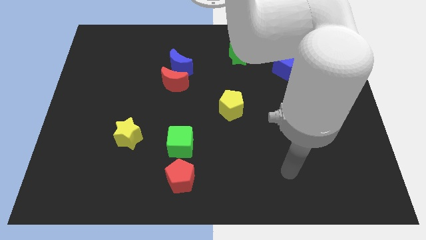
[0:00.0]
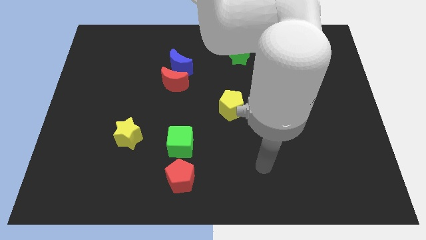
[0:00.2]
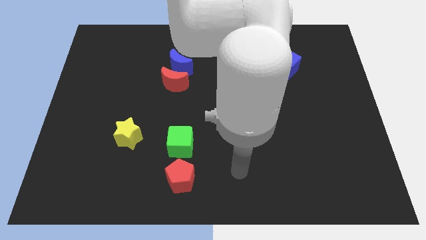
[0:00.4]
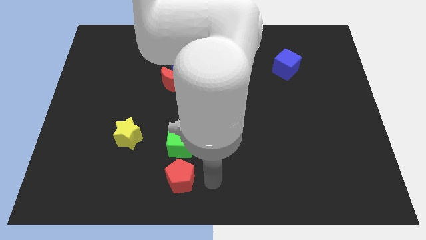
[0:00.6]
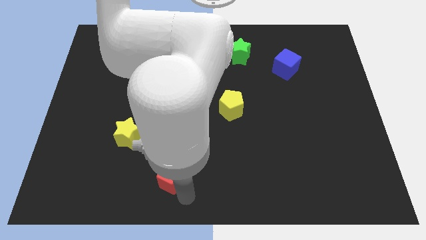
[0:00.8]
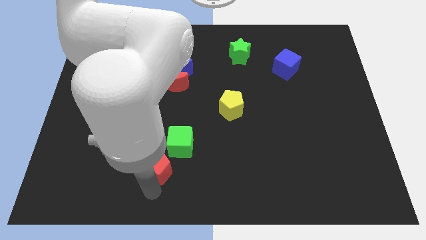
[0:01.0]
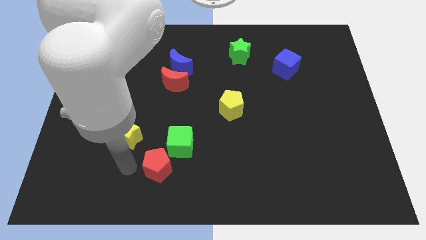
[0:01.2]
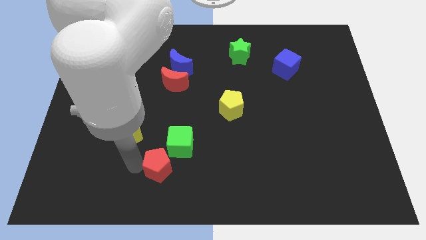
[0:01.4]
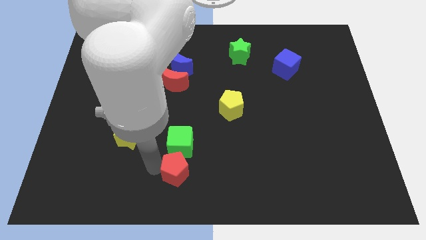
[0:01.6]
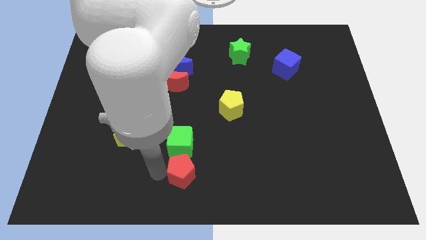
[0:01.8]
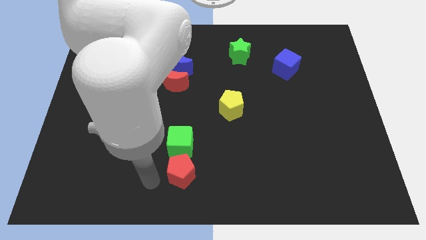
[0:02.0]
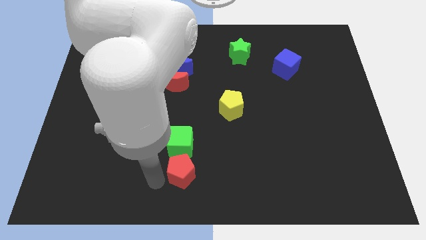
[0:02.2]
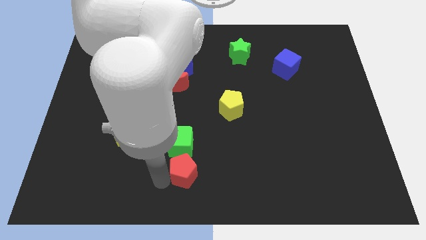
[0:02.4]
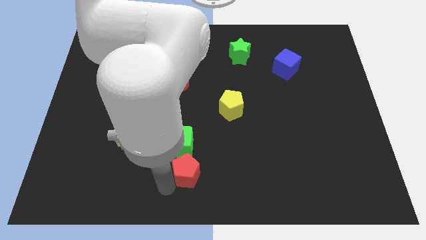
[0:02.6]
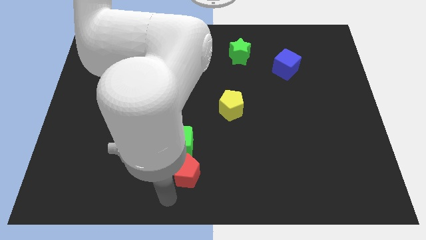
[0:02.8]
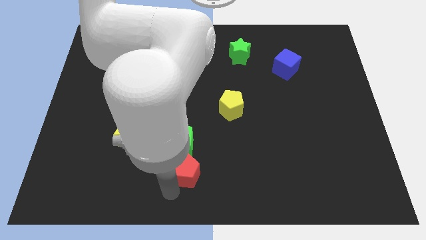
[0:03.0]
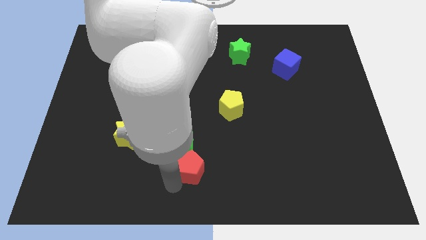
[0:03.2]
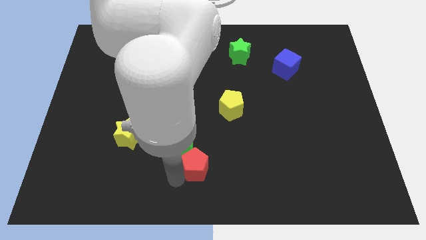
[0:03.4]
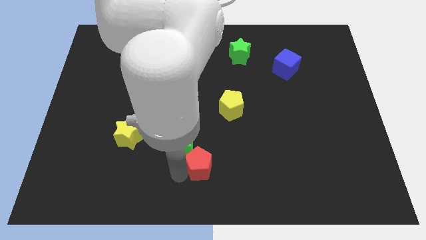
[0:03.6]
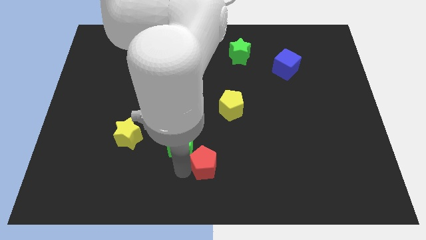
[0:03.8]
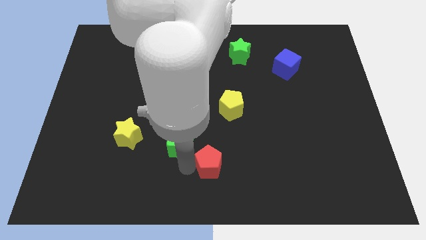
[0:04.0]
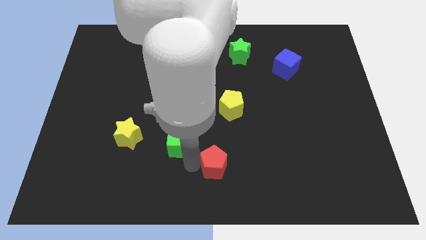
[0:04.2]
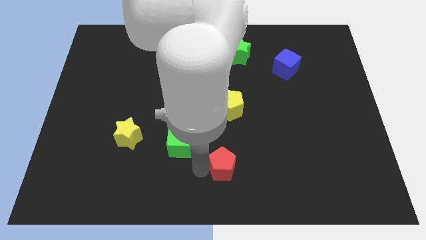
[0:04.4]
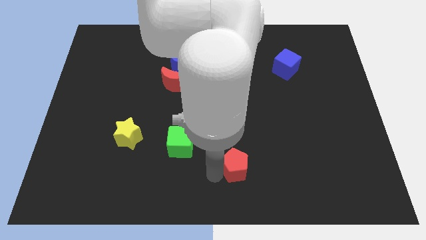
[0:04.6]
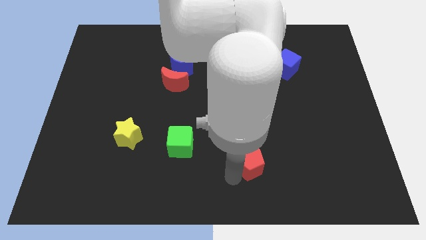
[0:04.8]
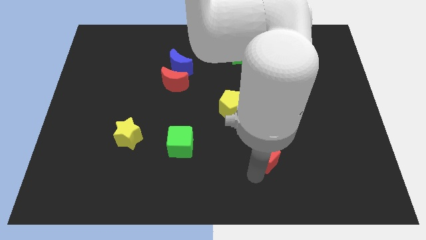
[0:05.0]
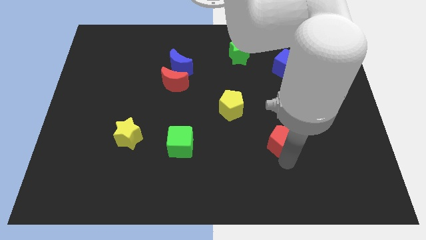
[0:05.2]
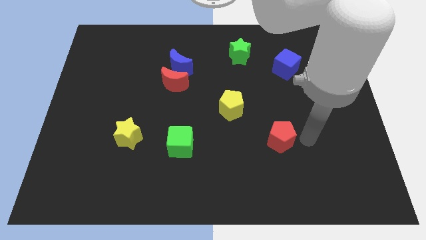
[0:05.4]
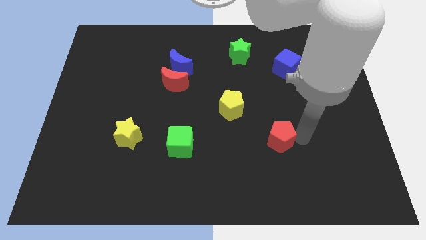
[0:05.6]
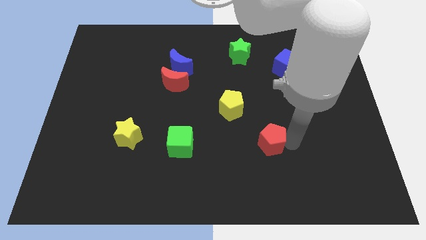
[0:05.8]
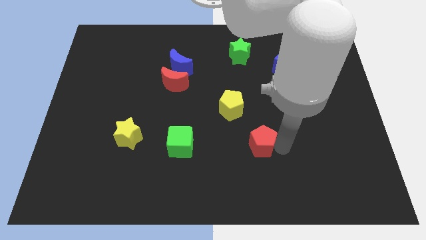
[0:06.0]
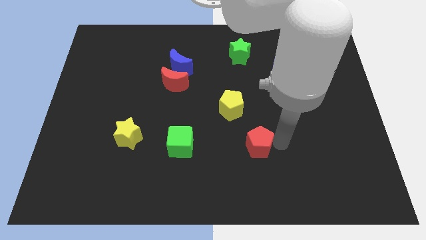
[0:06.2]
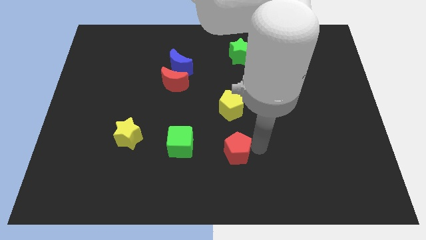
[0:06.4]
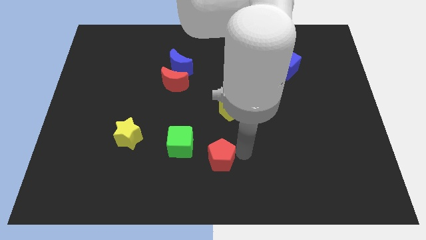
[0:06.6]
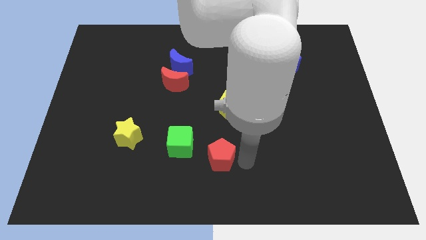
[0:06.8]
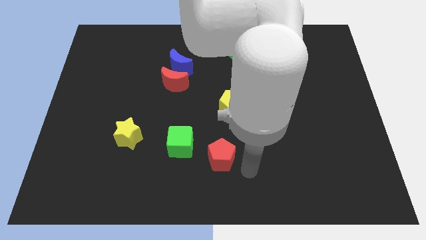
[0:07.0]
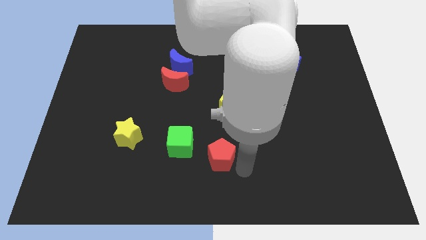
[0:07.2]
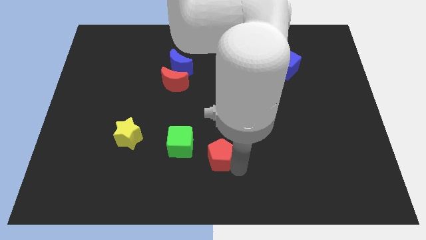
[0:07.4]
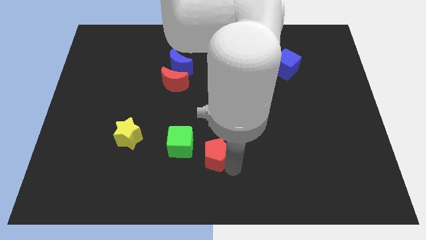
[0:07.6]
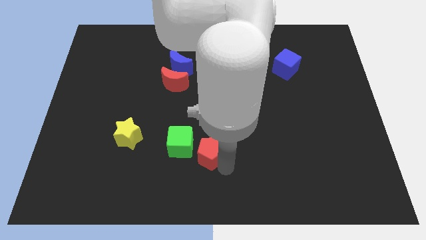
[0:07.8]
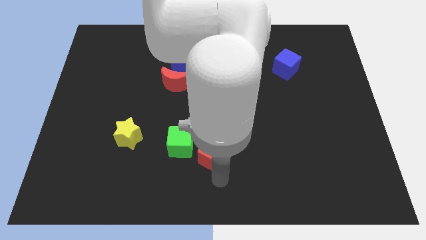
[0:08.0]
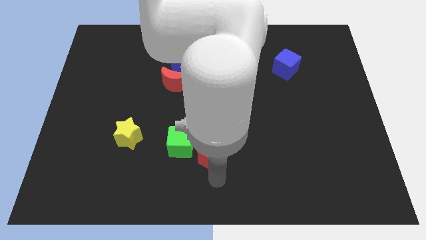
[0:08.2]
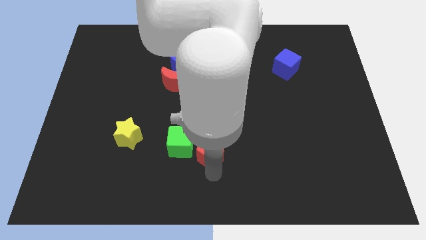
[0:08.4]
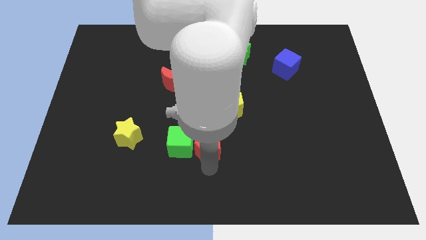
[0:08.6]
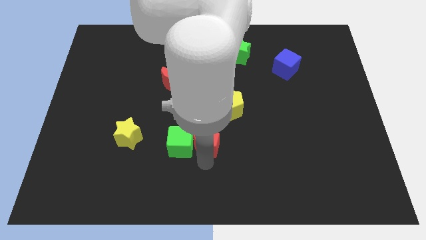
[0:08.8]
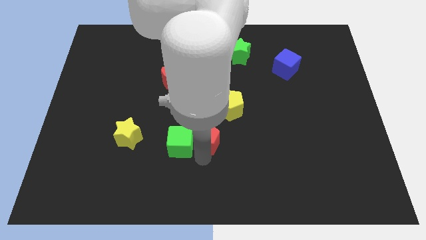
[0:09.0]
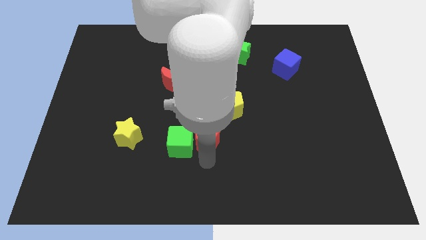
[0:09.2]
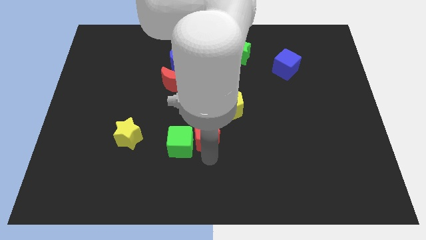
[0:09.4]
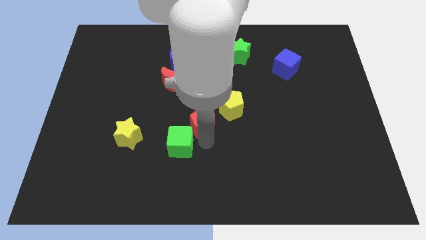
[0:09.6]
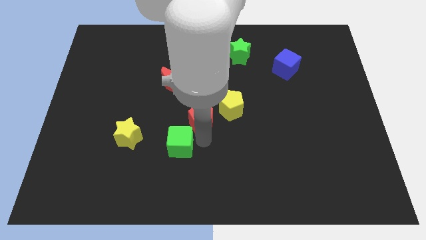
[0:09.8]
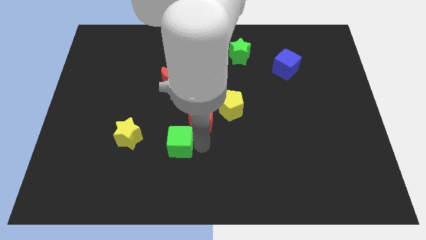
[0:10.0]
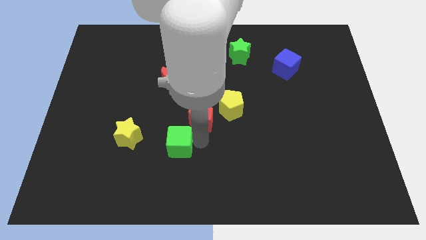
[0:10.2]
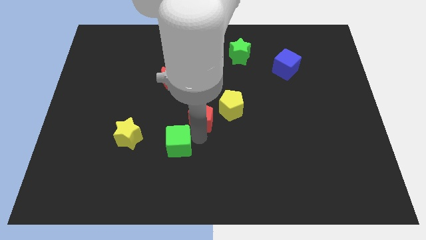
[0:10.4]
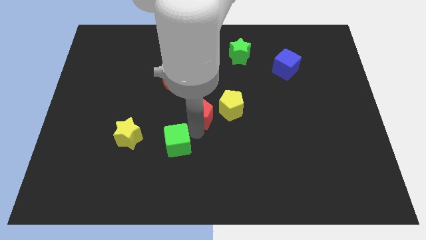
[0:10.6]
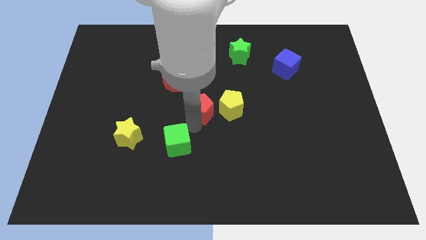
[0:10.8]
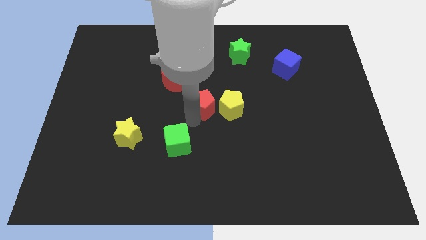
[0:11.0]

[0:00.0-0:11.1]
push the red pentagon diagonally up and to the left of the yellow pentagon

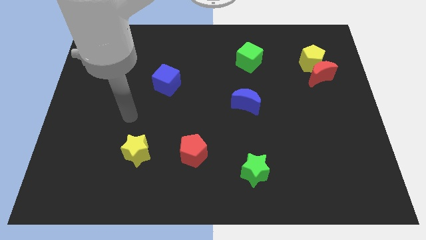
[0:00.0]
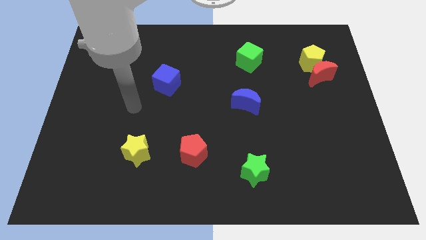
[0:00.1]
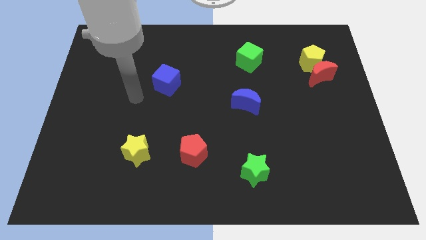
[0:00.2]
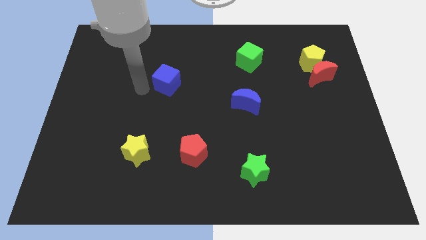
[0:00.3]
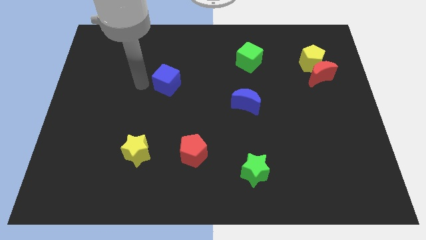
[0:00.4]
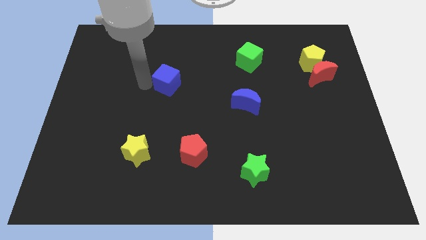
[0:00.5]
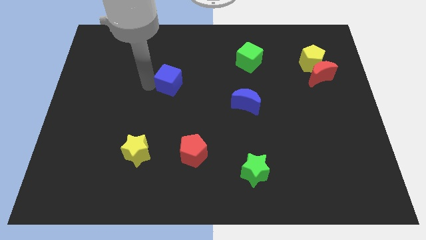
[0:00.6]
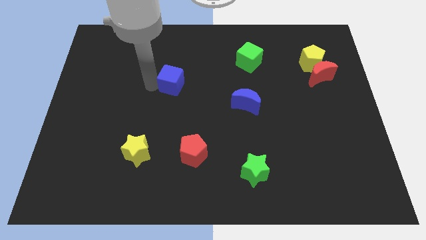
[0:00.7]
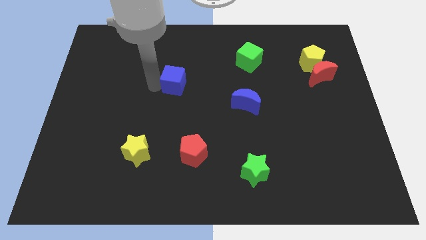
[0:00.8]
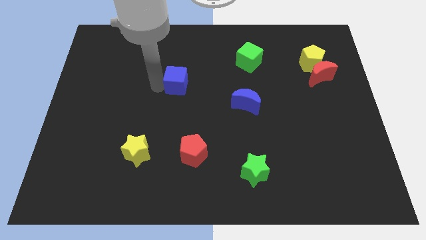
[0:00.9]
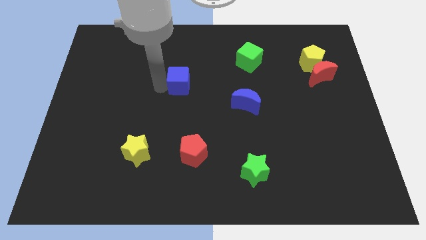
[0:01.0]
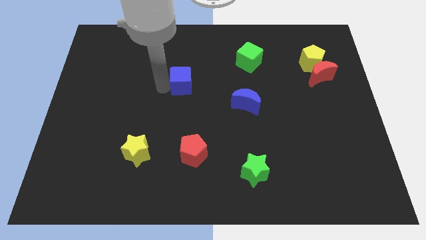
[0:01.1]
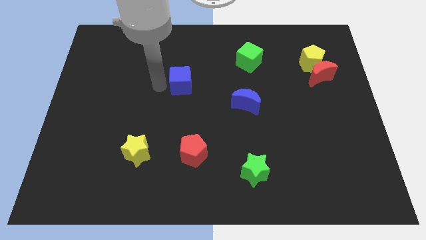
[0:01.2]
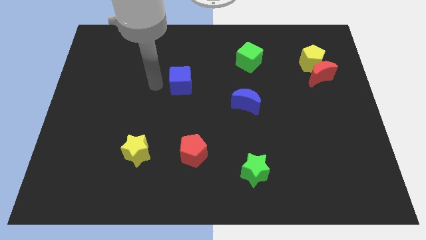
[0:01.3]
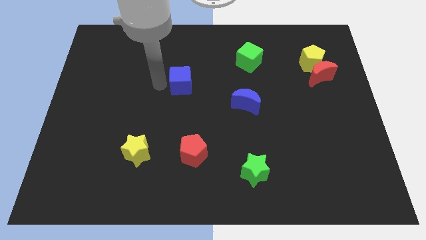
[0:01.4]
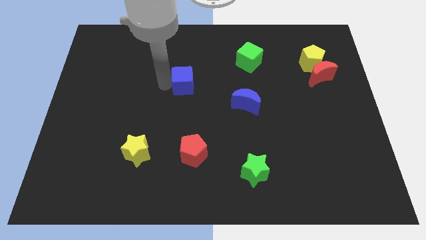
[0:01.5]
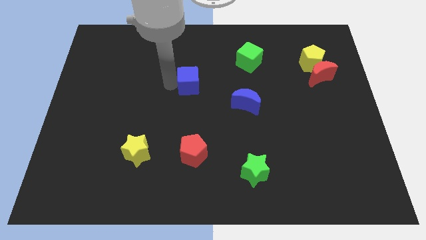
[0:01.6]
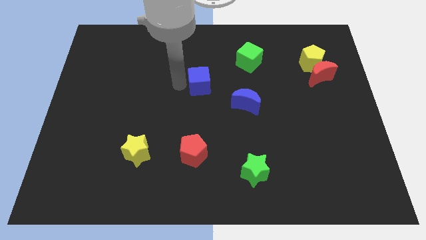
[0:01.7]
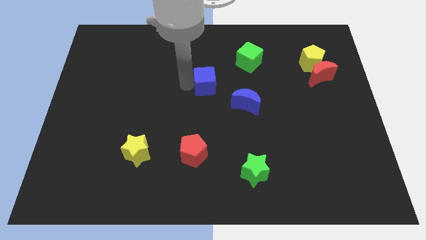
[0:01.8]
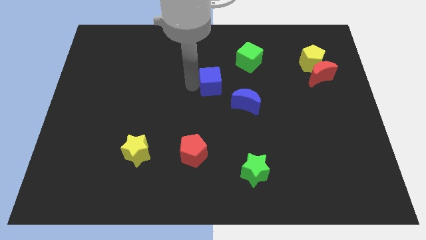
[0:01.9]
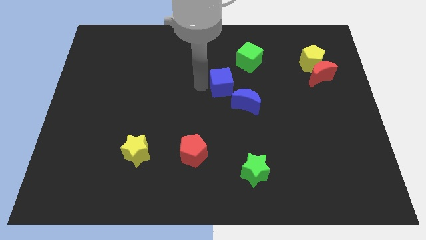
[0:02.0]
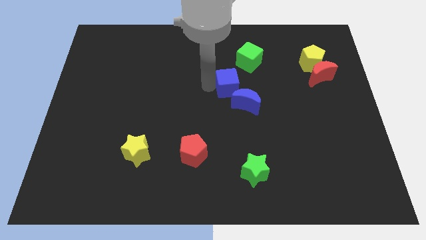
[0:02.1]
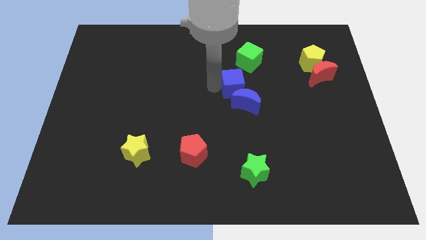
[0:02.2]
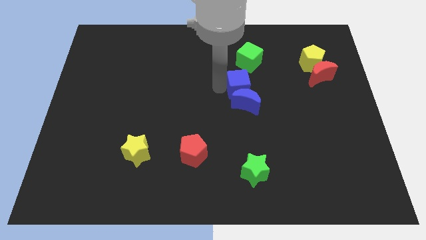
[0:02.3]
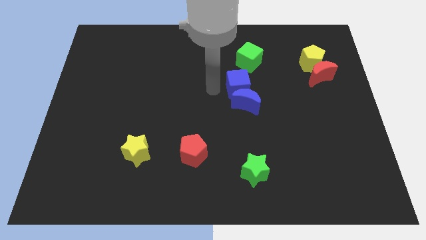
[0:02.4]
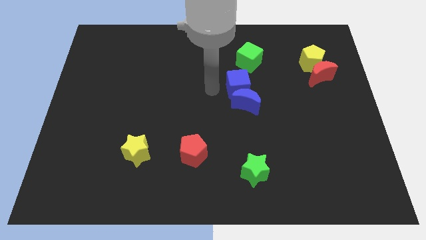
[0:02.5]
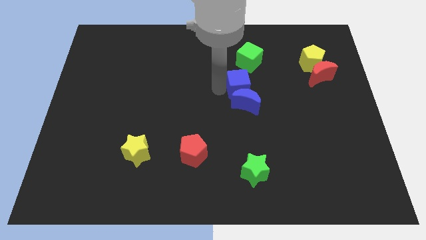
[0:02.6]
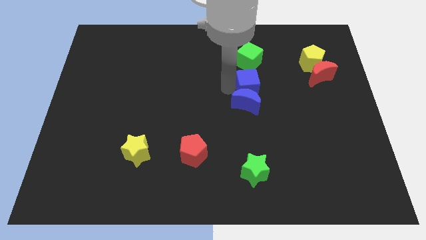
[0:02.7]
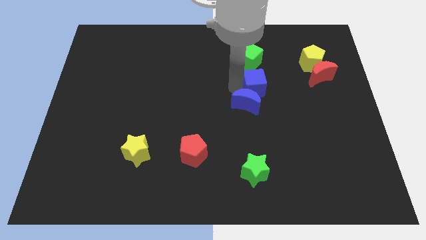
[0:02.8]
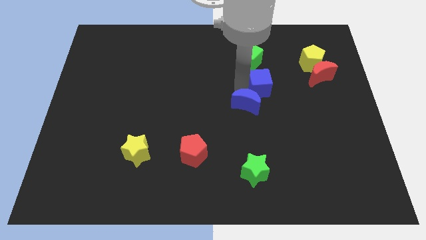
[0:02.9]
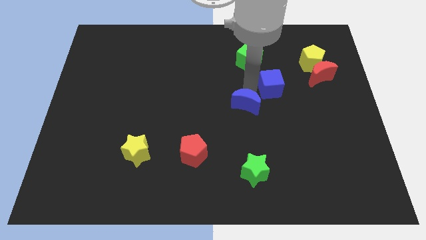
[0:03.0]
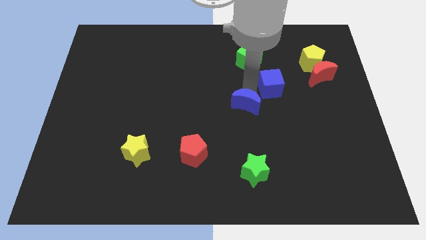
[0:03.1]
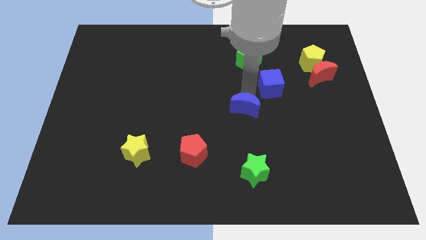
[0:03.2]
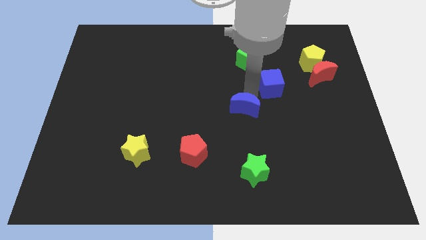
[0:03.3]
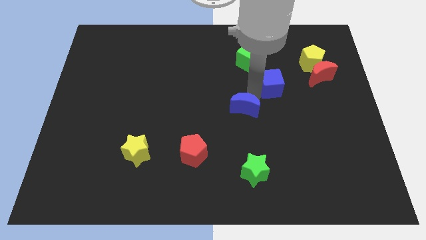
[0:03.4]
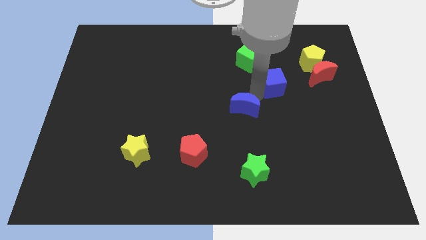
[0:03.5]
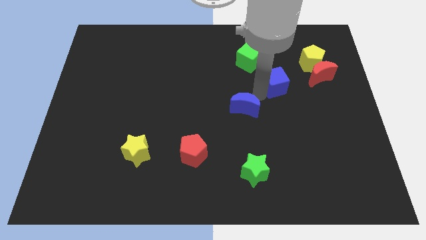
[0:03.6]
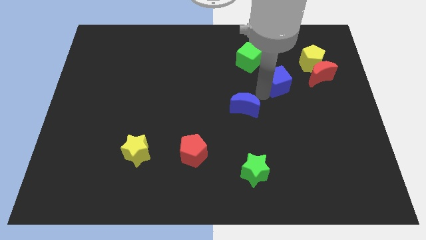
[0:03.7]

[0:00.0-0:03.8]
slide the blue cube to the bottom left side of the yellow pentagon
